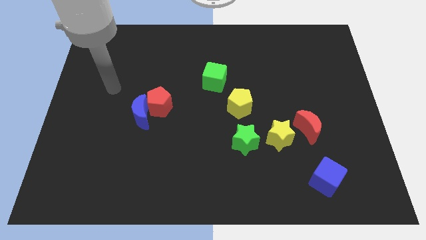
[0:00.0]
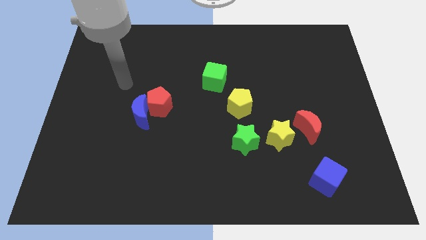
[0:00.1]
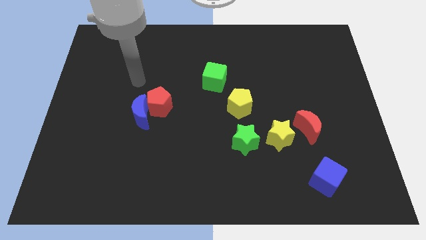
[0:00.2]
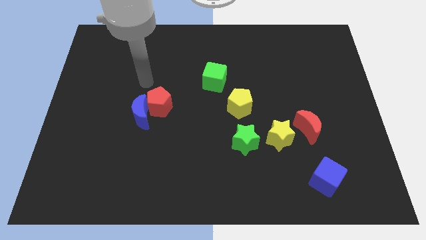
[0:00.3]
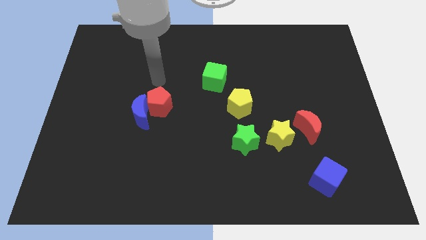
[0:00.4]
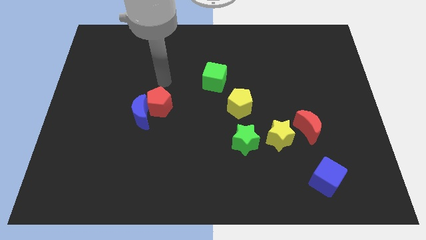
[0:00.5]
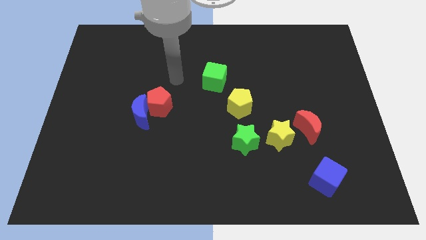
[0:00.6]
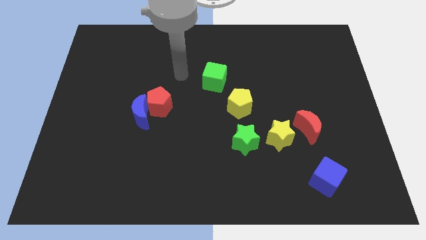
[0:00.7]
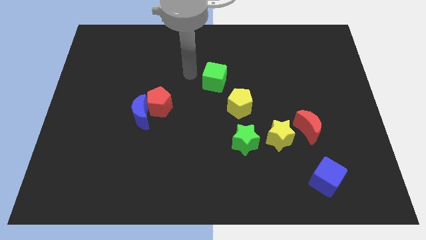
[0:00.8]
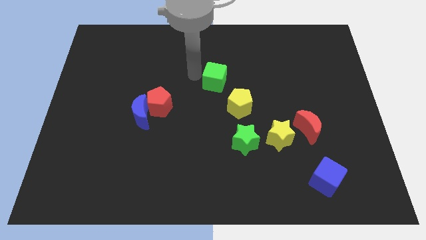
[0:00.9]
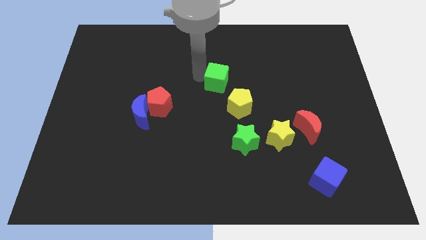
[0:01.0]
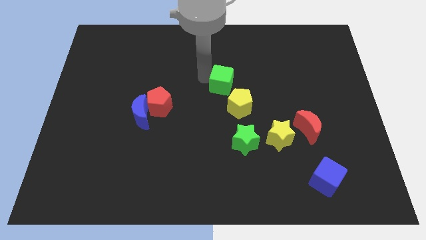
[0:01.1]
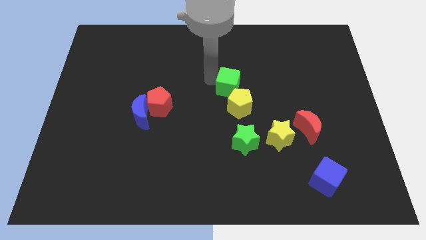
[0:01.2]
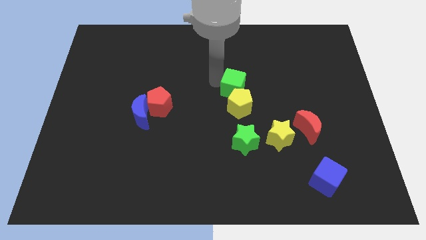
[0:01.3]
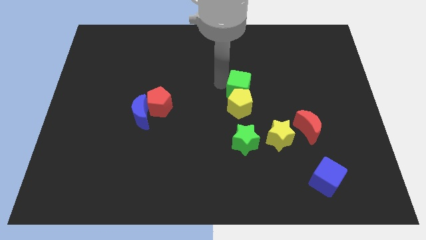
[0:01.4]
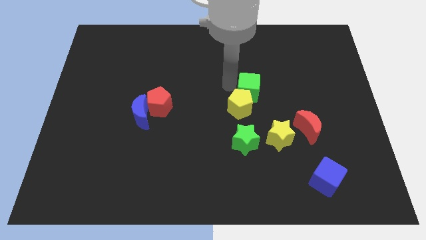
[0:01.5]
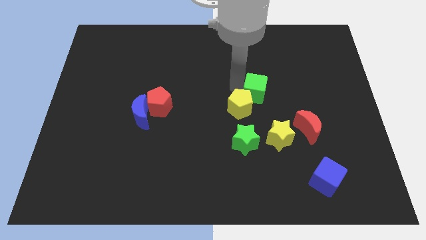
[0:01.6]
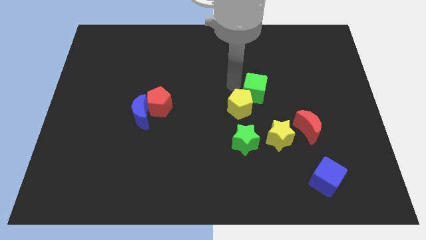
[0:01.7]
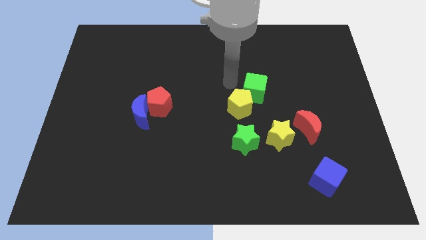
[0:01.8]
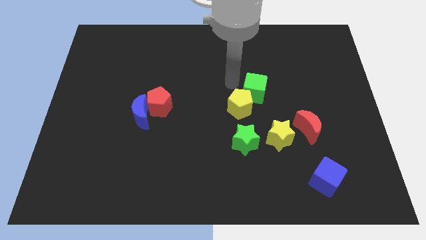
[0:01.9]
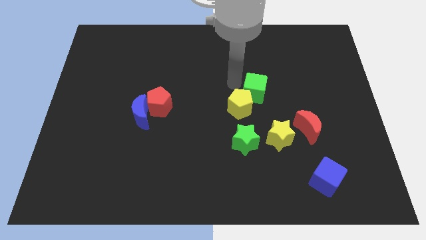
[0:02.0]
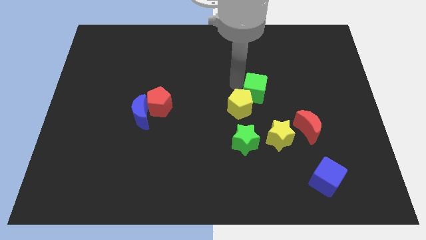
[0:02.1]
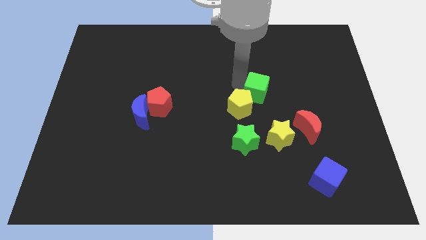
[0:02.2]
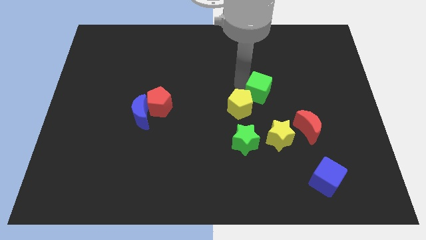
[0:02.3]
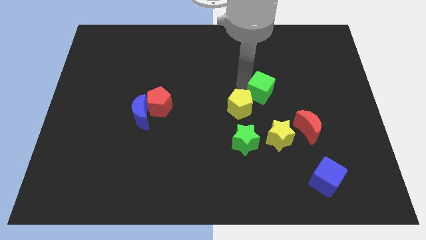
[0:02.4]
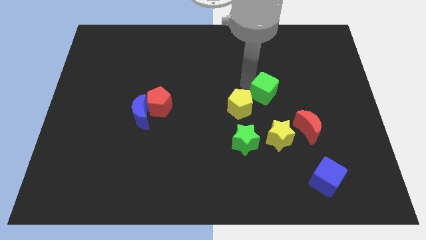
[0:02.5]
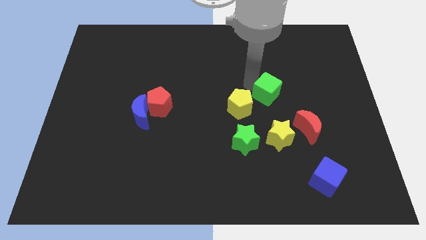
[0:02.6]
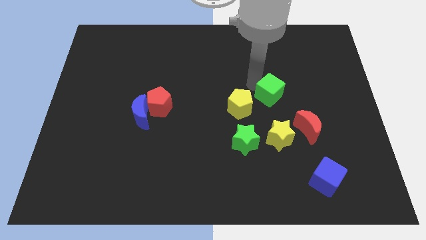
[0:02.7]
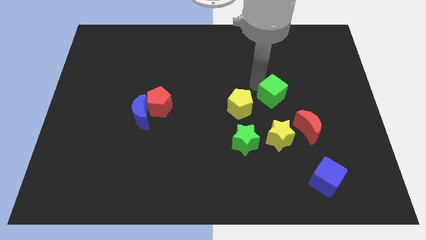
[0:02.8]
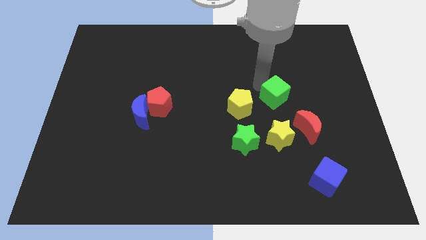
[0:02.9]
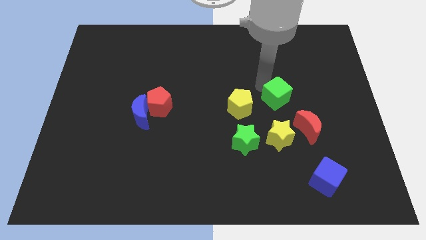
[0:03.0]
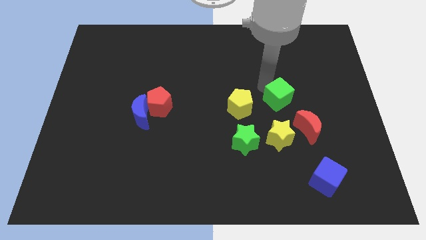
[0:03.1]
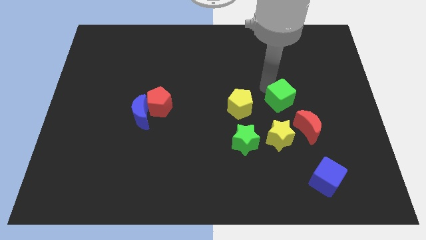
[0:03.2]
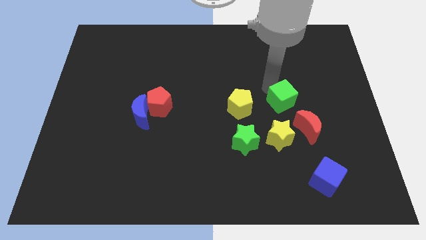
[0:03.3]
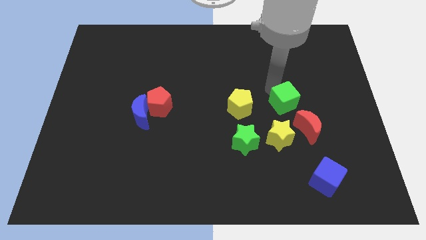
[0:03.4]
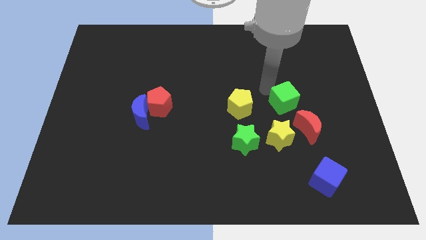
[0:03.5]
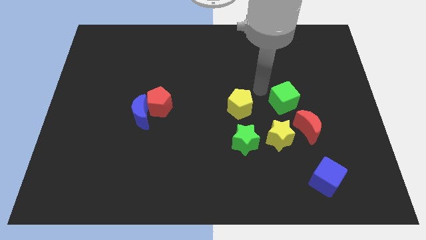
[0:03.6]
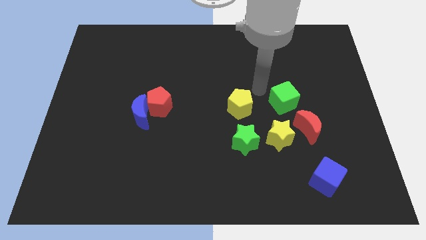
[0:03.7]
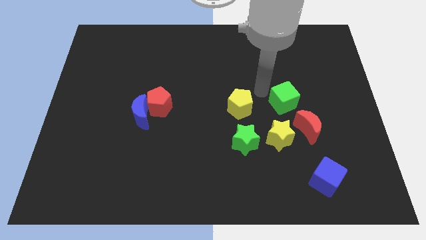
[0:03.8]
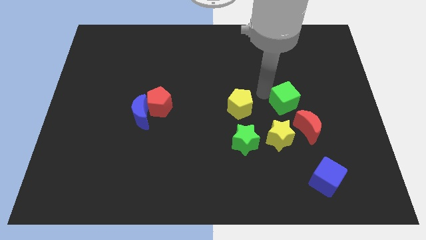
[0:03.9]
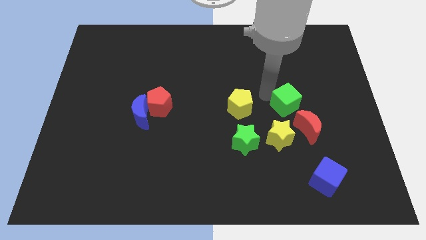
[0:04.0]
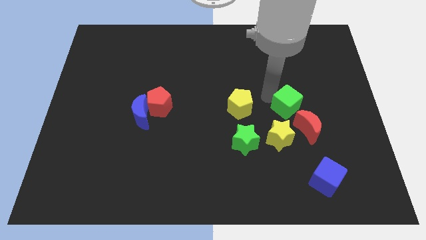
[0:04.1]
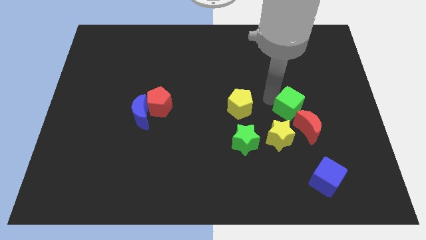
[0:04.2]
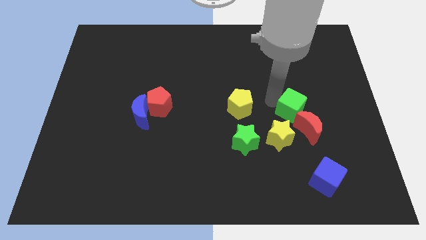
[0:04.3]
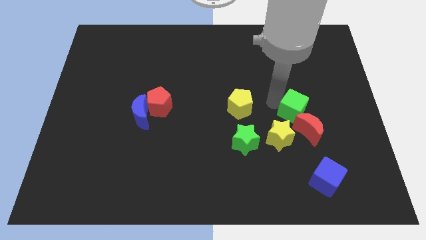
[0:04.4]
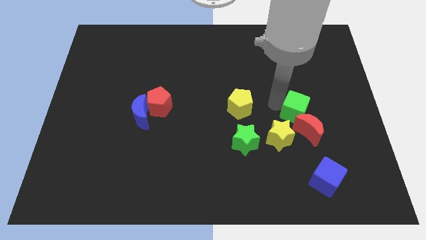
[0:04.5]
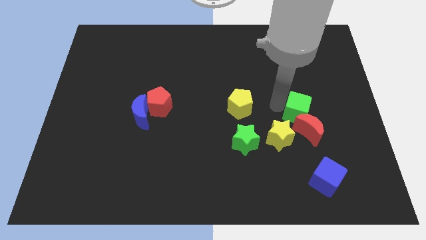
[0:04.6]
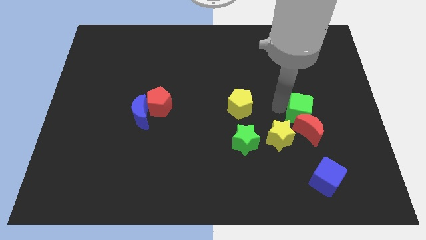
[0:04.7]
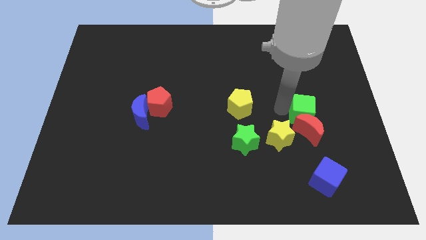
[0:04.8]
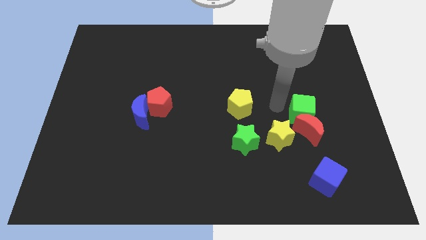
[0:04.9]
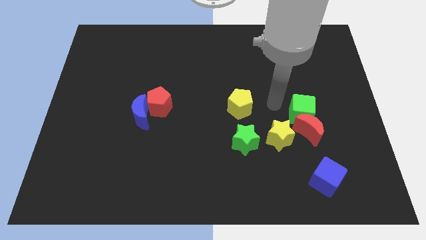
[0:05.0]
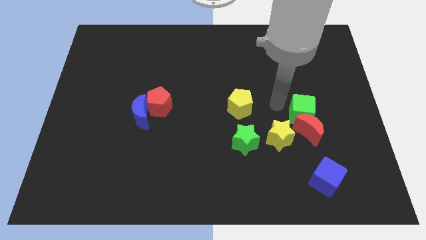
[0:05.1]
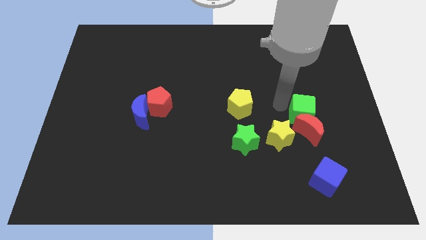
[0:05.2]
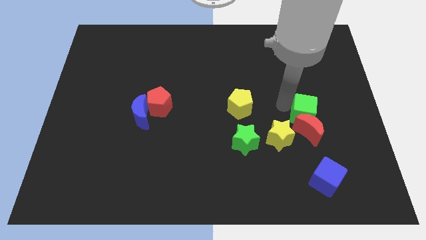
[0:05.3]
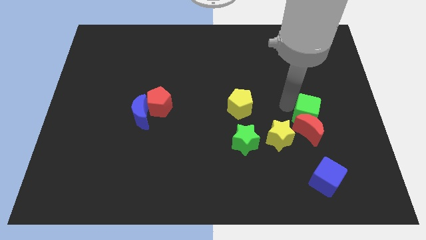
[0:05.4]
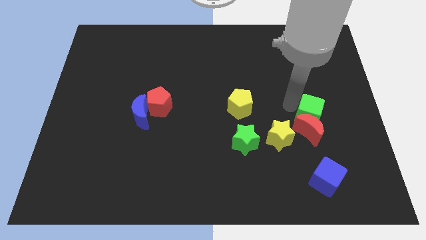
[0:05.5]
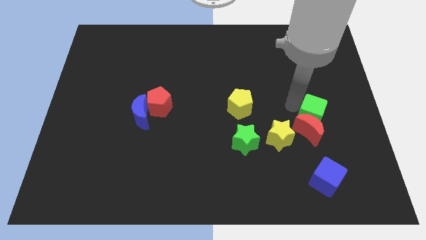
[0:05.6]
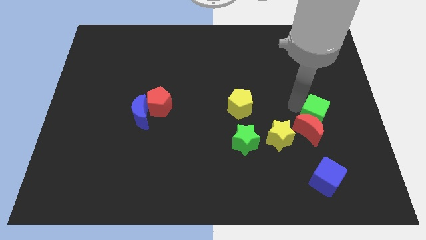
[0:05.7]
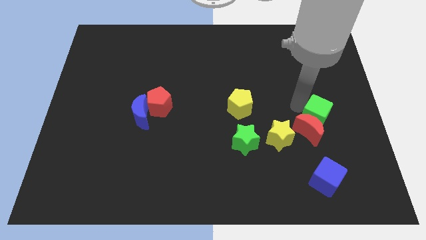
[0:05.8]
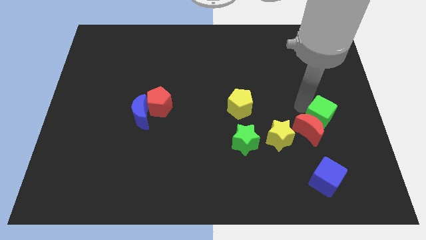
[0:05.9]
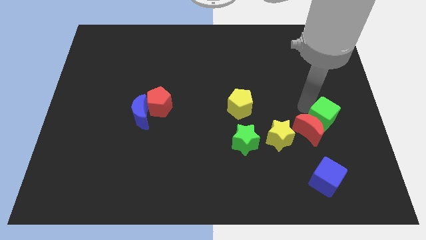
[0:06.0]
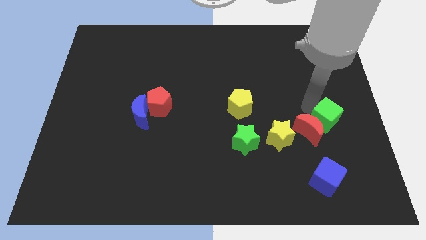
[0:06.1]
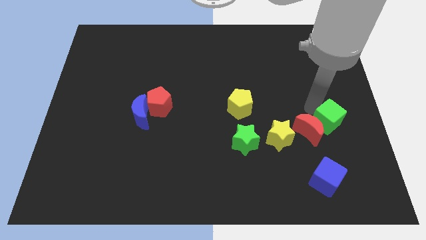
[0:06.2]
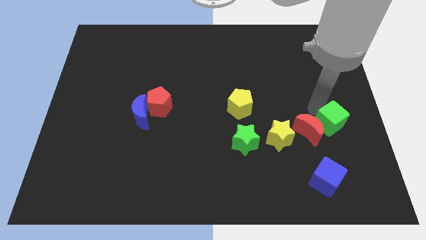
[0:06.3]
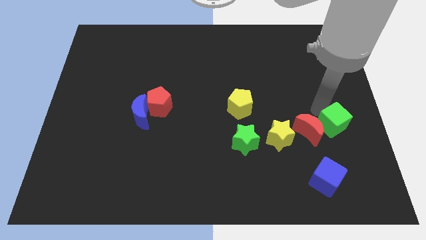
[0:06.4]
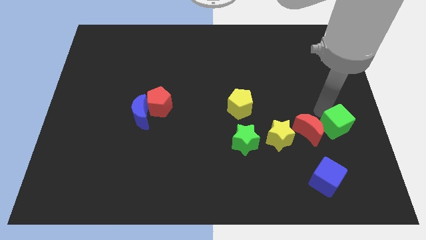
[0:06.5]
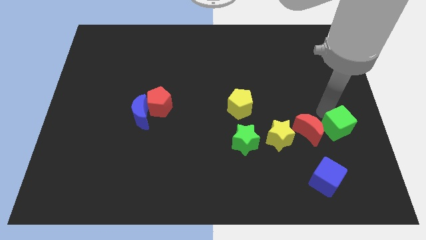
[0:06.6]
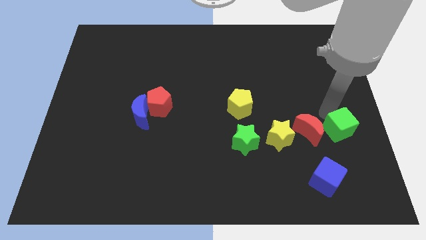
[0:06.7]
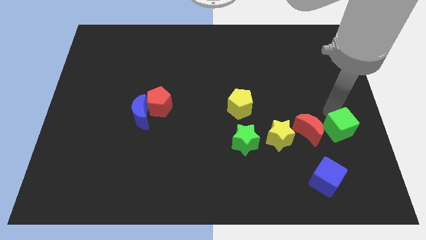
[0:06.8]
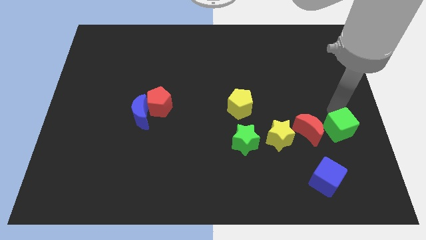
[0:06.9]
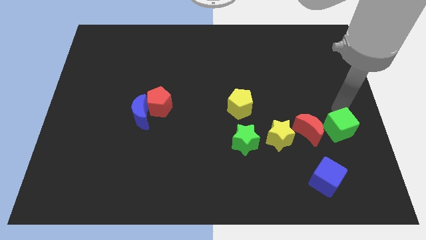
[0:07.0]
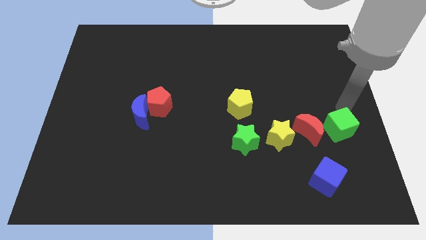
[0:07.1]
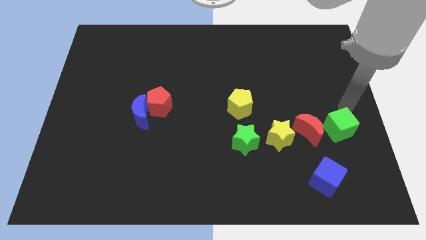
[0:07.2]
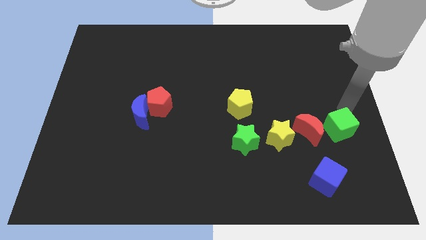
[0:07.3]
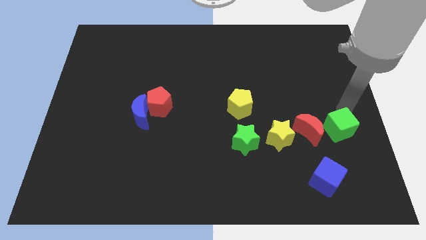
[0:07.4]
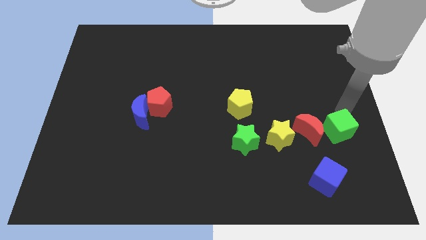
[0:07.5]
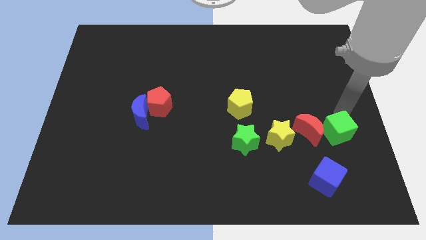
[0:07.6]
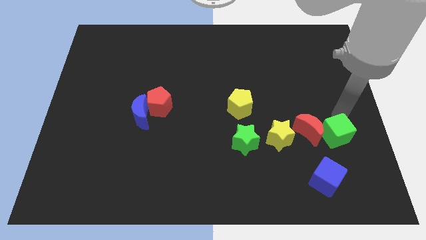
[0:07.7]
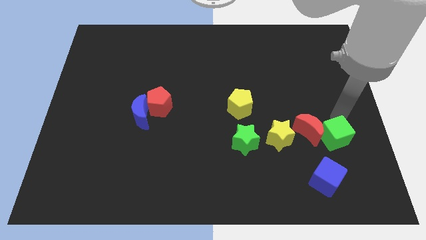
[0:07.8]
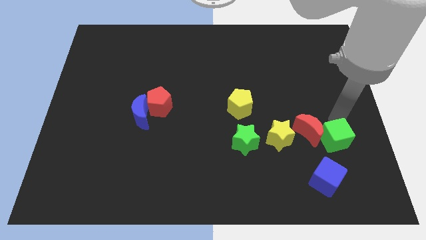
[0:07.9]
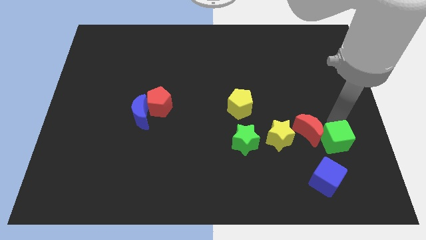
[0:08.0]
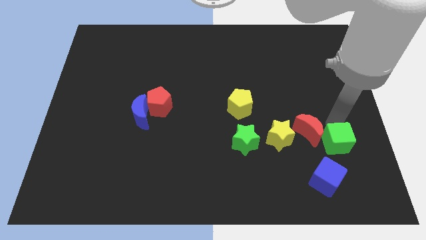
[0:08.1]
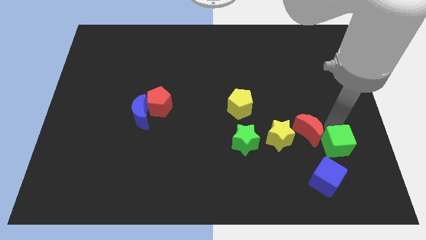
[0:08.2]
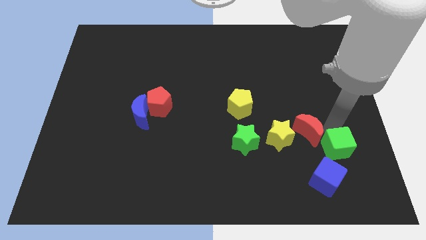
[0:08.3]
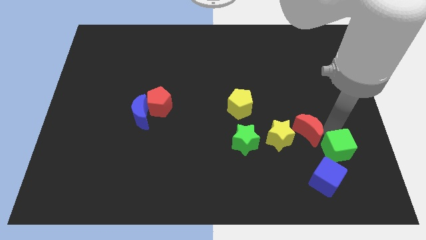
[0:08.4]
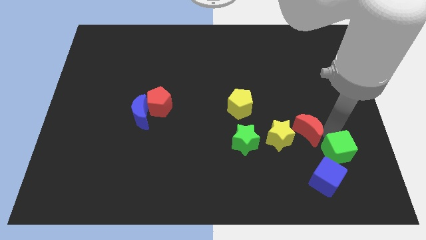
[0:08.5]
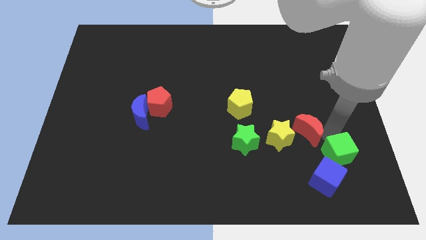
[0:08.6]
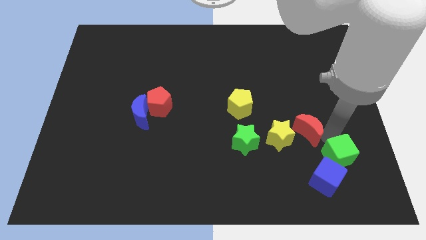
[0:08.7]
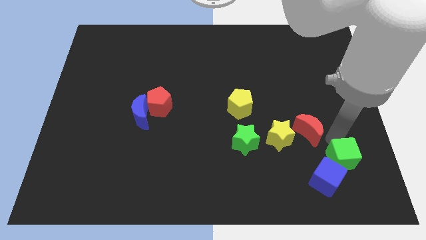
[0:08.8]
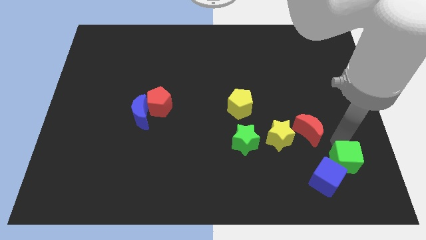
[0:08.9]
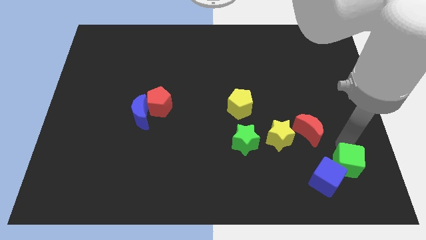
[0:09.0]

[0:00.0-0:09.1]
put the green cube next to the blue cube
